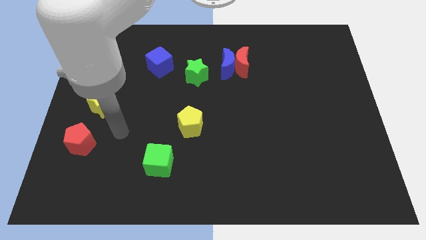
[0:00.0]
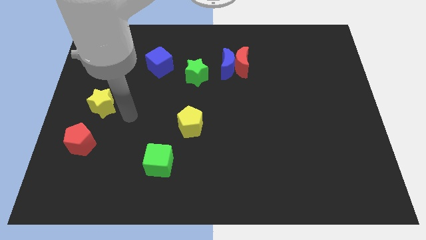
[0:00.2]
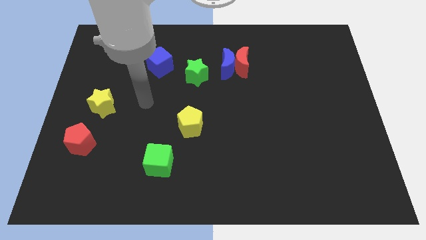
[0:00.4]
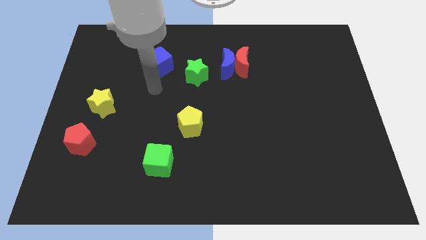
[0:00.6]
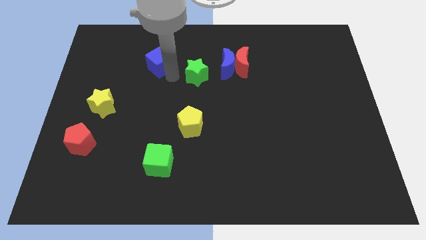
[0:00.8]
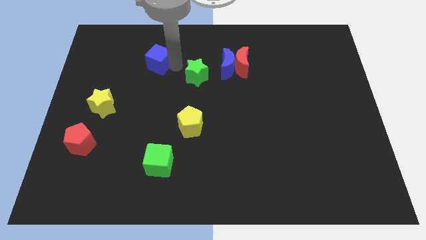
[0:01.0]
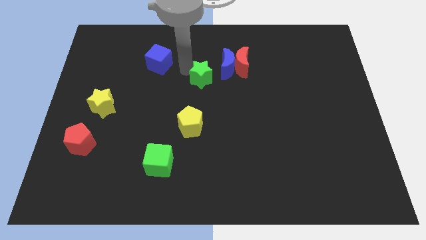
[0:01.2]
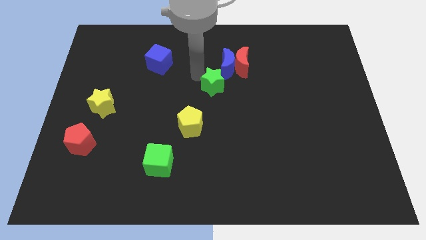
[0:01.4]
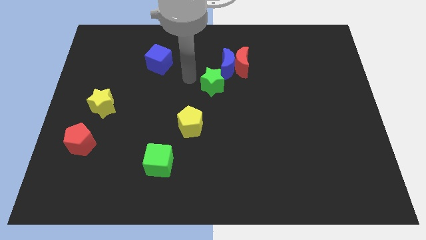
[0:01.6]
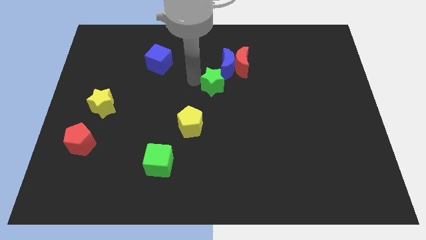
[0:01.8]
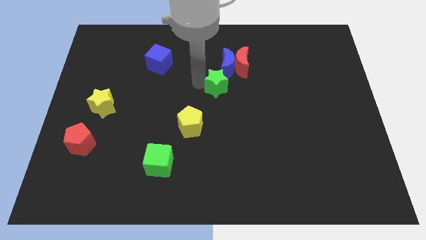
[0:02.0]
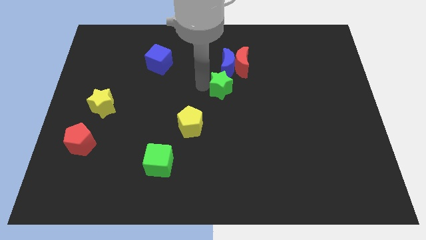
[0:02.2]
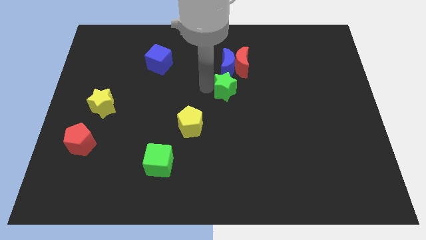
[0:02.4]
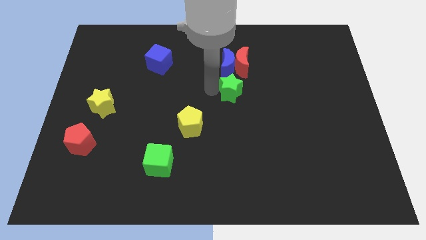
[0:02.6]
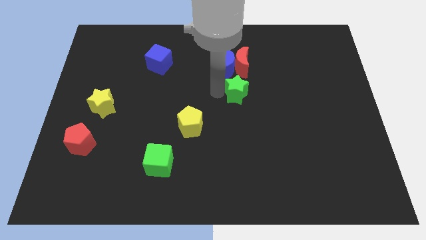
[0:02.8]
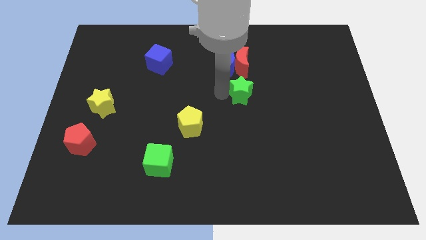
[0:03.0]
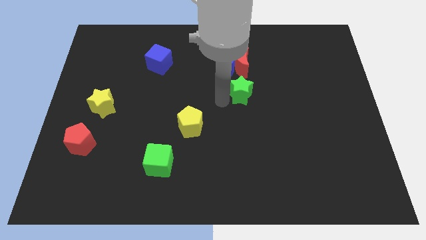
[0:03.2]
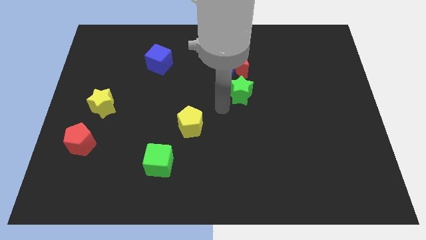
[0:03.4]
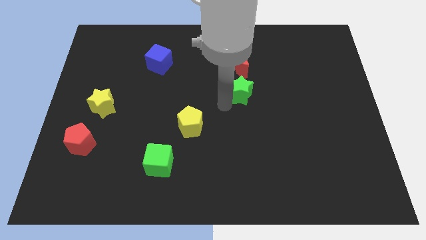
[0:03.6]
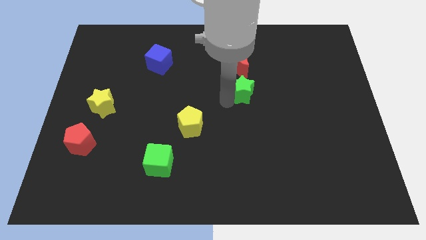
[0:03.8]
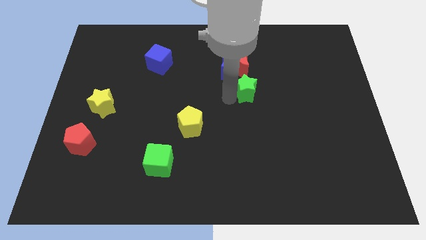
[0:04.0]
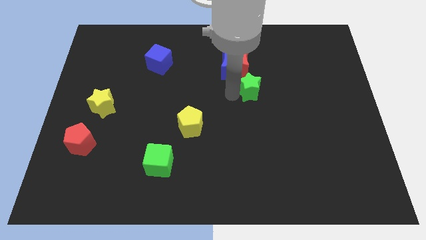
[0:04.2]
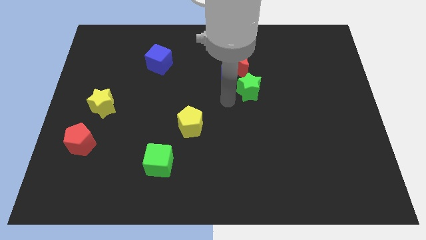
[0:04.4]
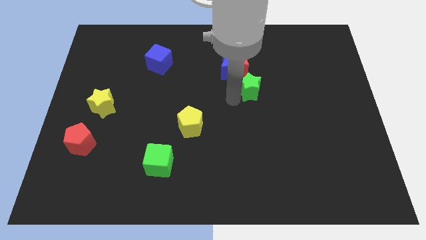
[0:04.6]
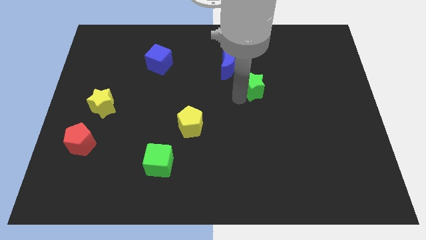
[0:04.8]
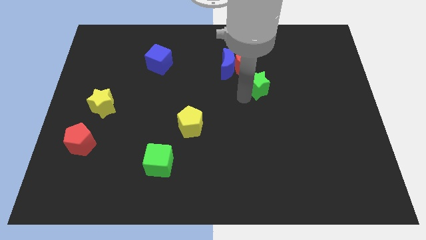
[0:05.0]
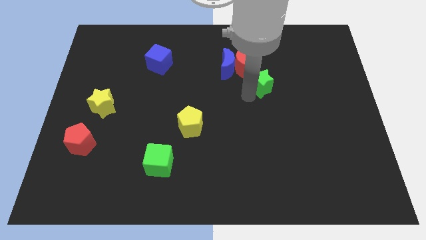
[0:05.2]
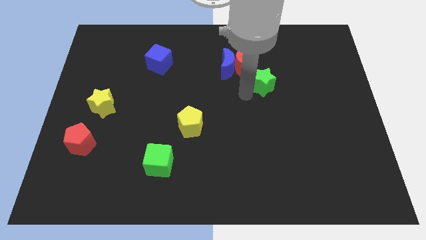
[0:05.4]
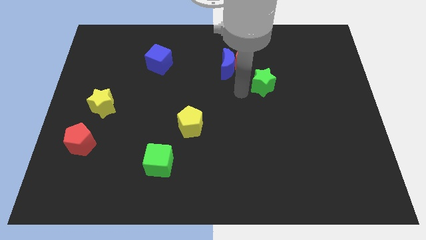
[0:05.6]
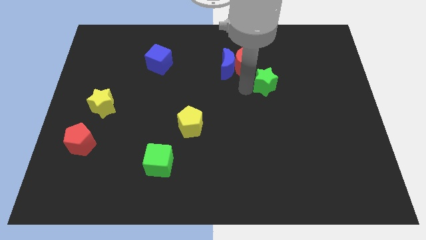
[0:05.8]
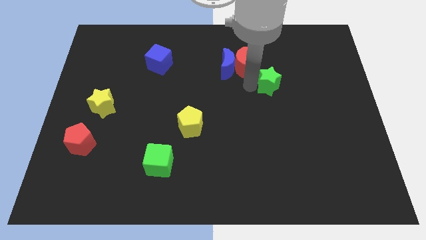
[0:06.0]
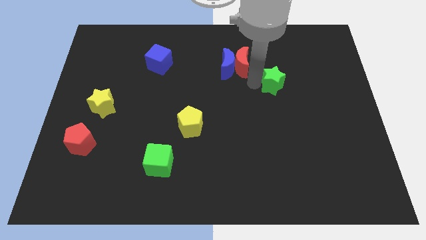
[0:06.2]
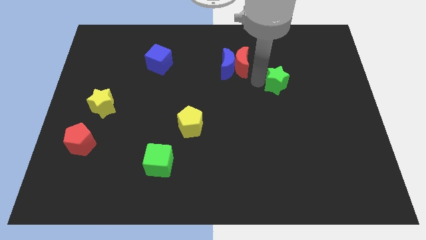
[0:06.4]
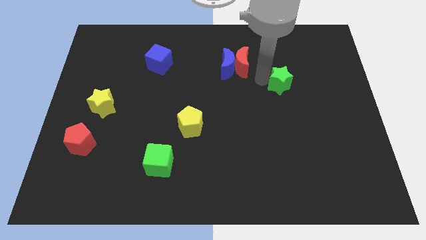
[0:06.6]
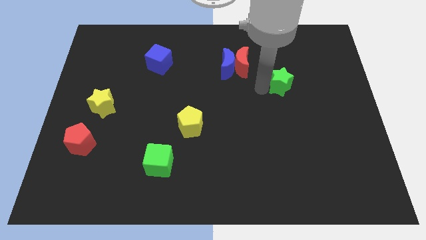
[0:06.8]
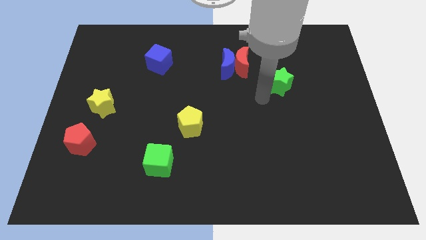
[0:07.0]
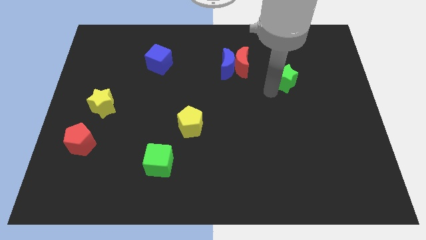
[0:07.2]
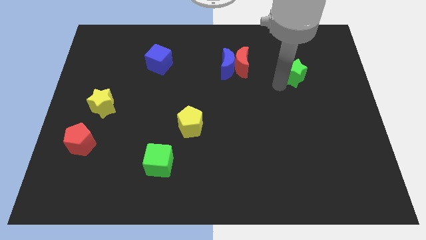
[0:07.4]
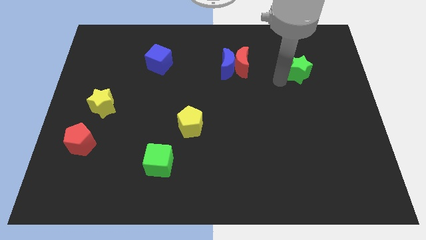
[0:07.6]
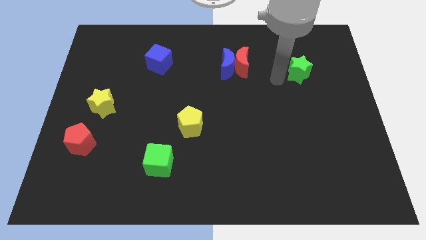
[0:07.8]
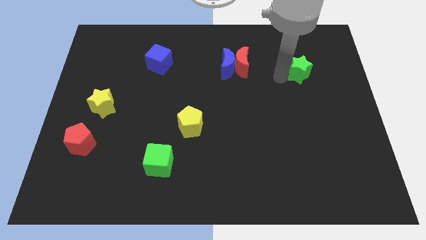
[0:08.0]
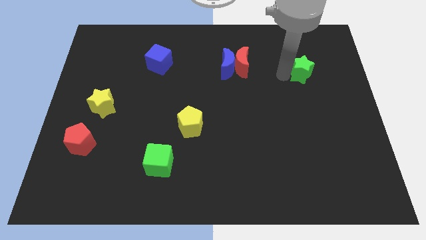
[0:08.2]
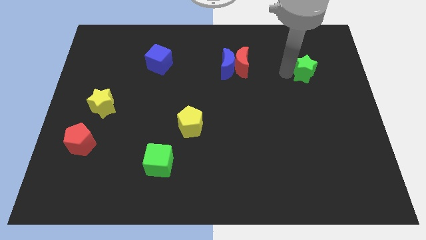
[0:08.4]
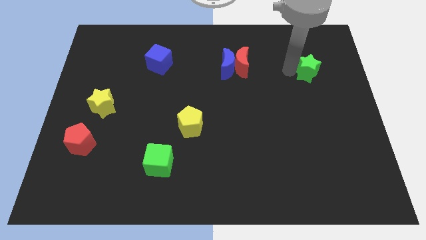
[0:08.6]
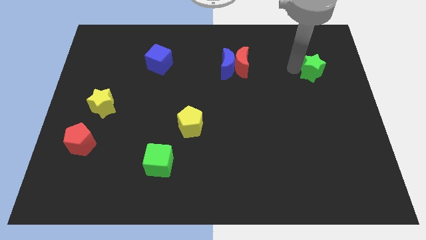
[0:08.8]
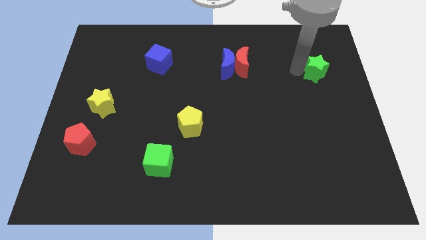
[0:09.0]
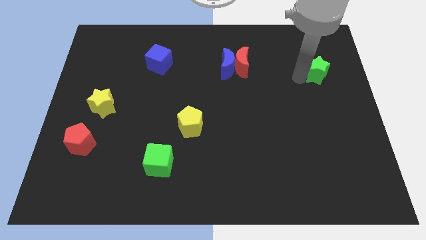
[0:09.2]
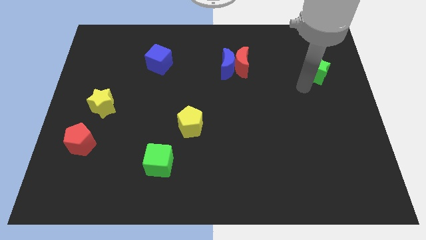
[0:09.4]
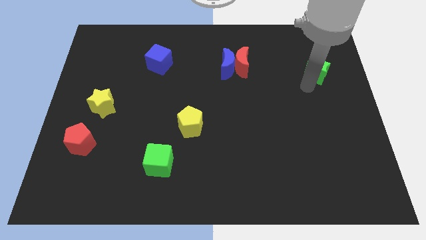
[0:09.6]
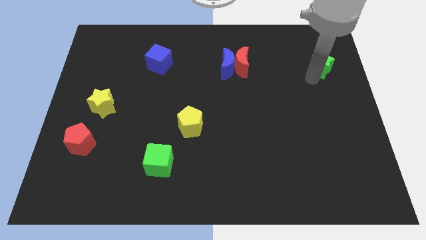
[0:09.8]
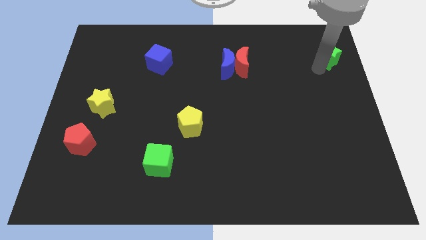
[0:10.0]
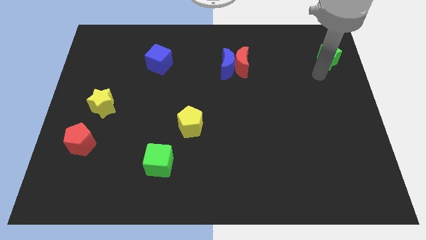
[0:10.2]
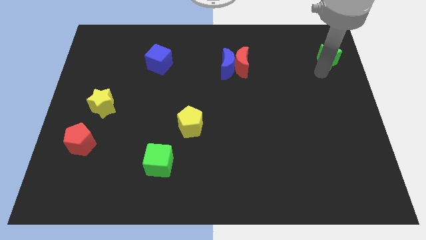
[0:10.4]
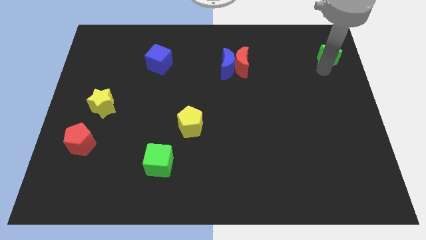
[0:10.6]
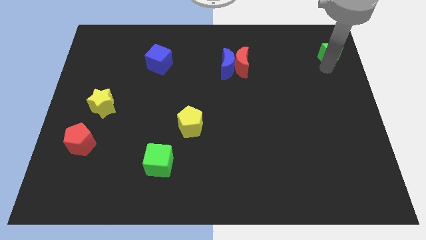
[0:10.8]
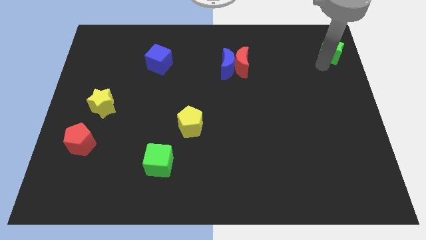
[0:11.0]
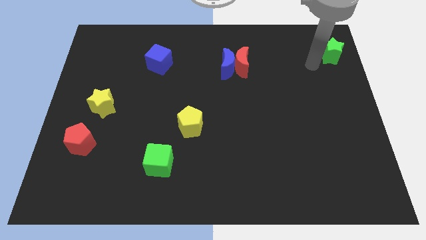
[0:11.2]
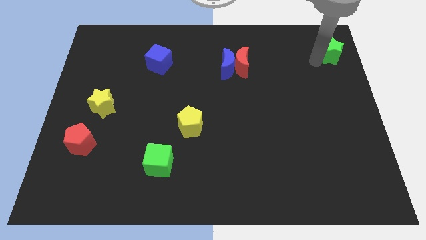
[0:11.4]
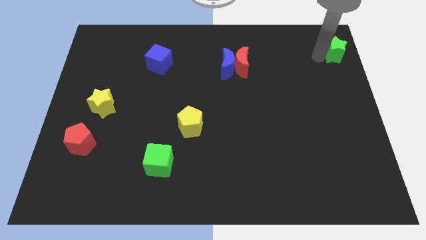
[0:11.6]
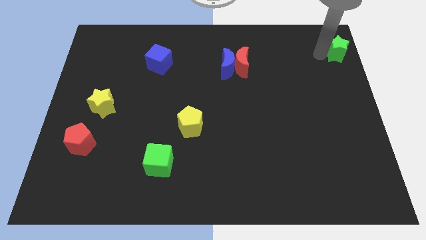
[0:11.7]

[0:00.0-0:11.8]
slide the green star to the top right corner
